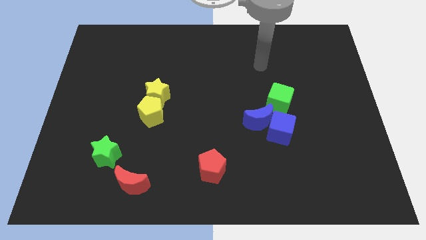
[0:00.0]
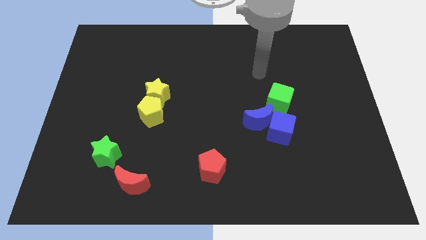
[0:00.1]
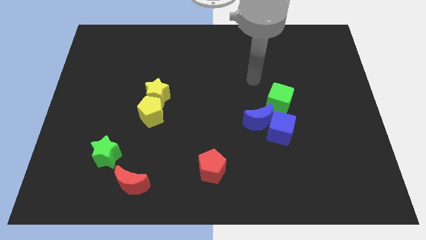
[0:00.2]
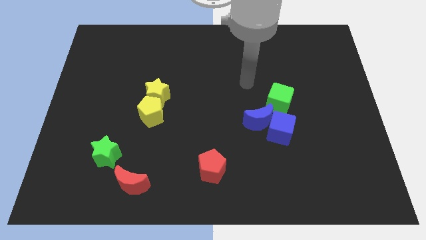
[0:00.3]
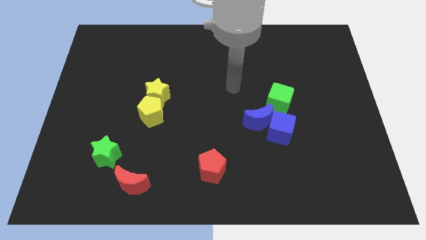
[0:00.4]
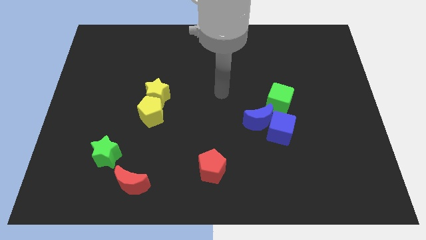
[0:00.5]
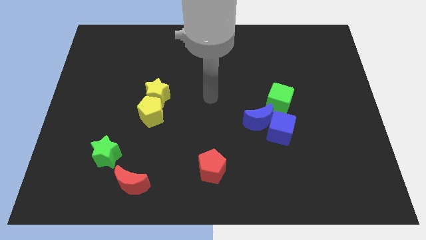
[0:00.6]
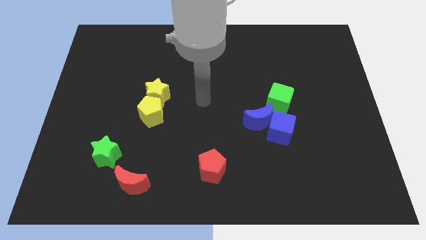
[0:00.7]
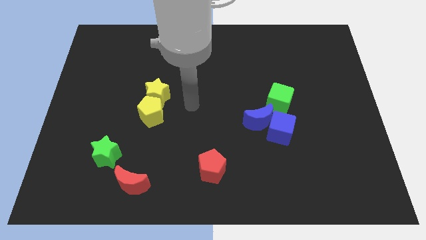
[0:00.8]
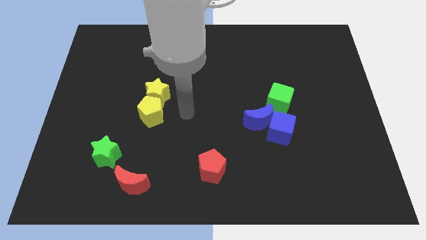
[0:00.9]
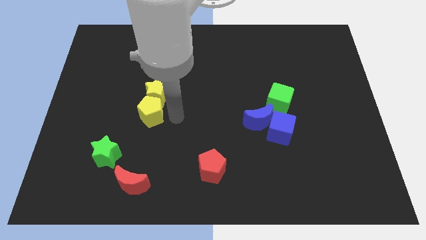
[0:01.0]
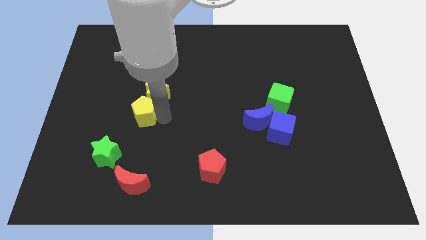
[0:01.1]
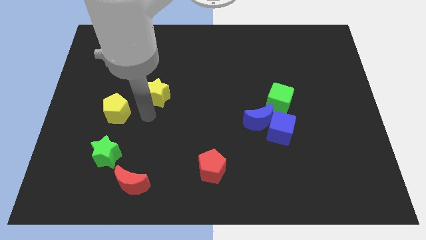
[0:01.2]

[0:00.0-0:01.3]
separate the yellow star from the yellow pentagon

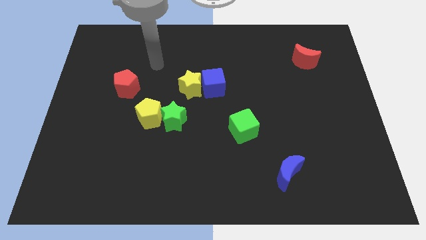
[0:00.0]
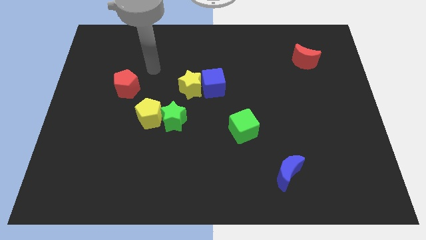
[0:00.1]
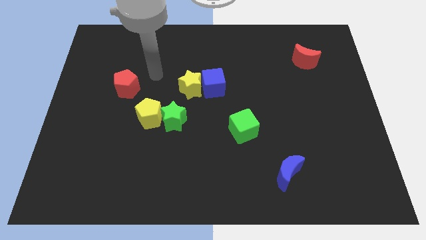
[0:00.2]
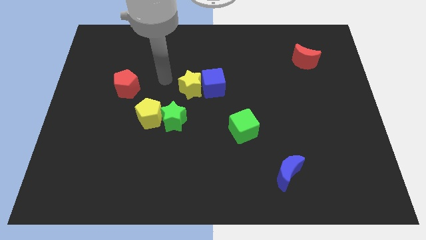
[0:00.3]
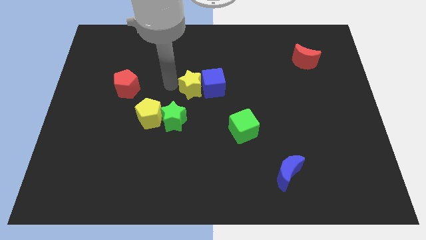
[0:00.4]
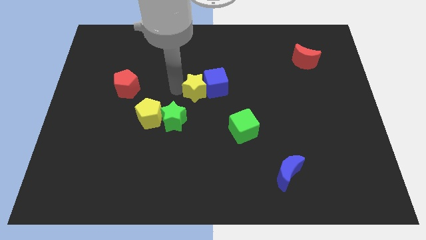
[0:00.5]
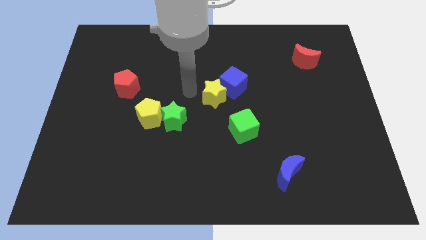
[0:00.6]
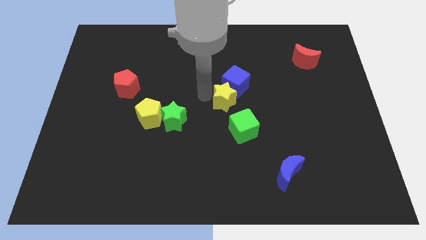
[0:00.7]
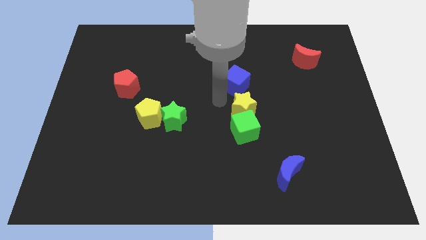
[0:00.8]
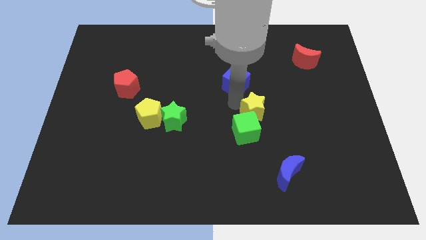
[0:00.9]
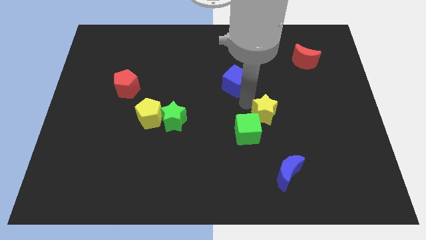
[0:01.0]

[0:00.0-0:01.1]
pull the blue cube apart from the yellow star

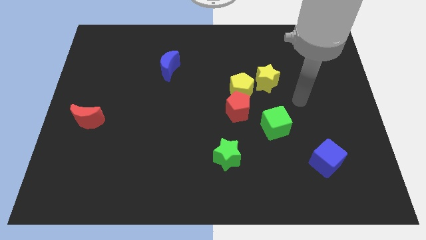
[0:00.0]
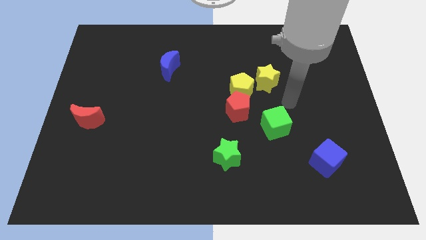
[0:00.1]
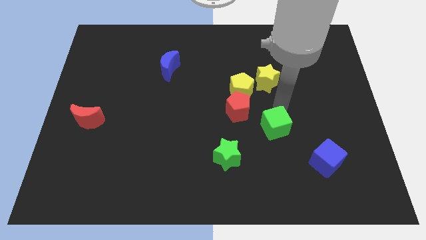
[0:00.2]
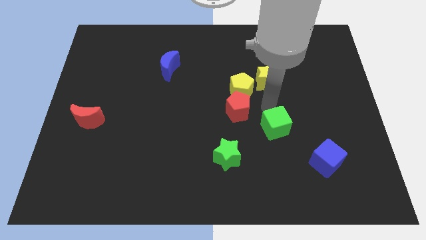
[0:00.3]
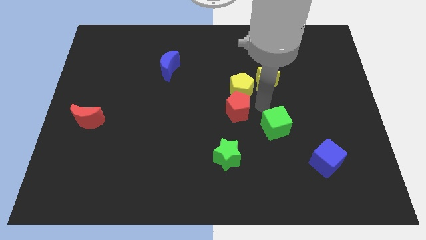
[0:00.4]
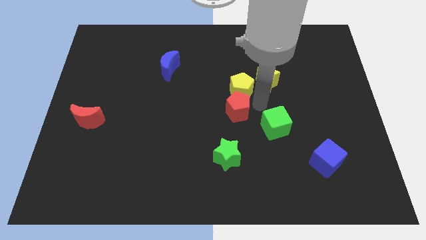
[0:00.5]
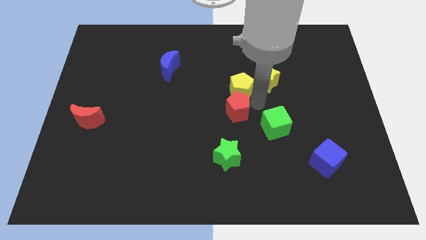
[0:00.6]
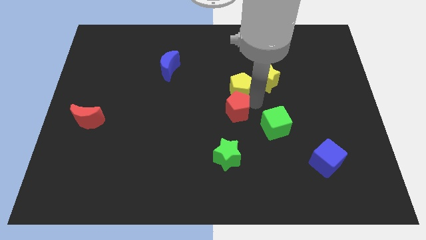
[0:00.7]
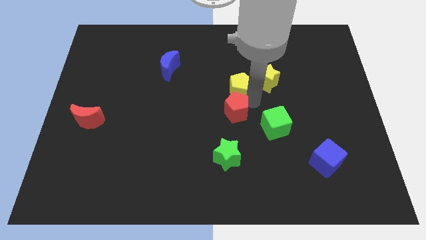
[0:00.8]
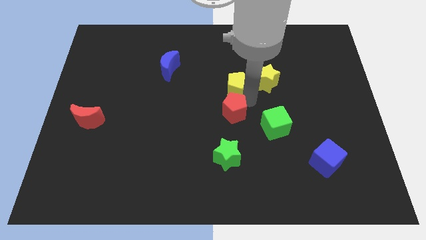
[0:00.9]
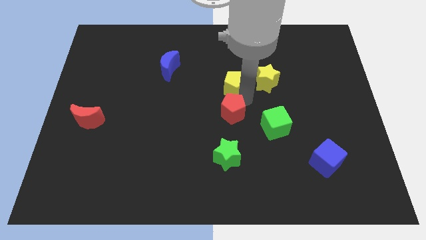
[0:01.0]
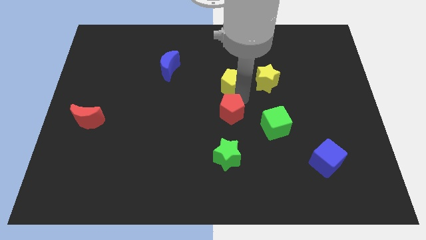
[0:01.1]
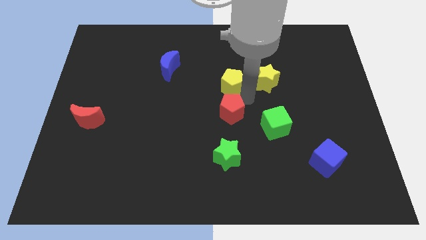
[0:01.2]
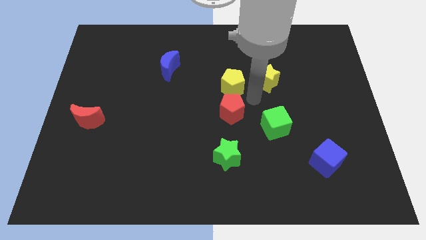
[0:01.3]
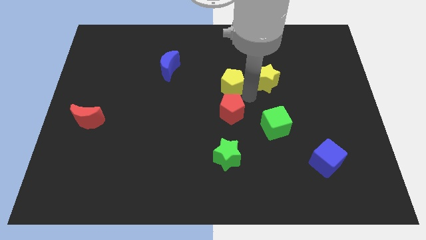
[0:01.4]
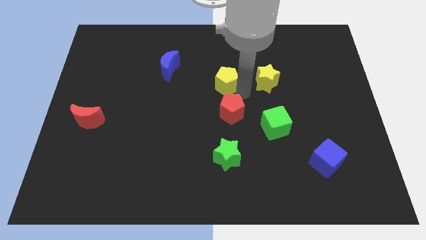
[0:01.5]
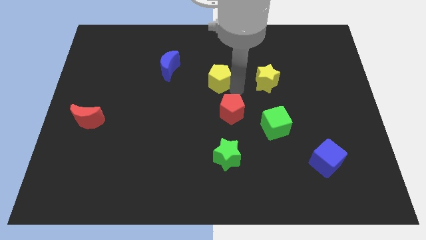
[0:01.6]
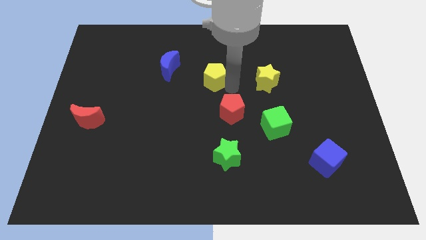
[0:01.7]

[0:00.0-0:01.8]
move the yellow pentagon away from the red pentagon and yellow star

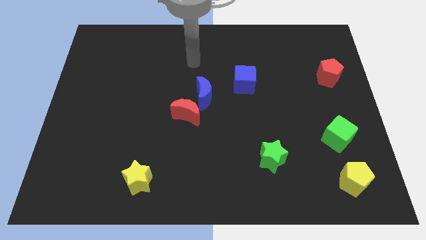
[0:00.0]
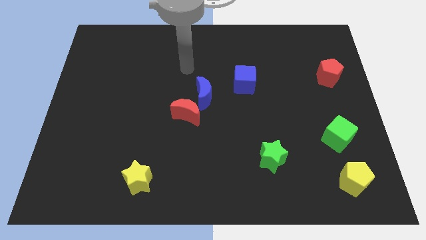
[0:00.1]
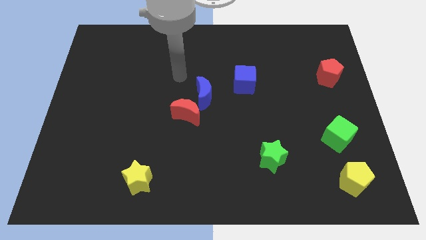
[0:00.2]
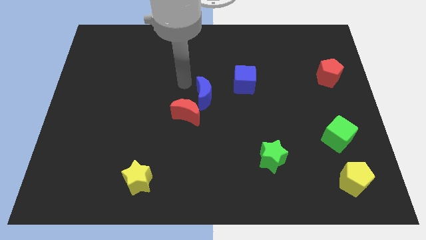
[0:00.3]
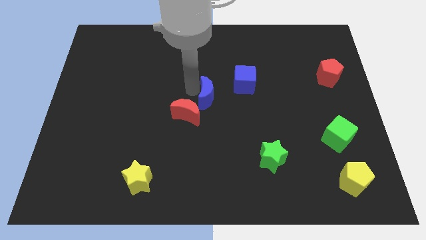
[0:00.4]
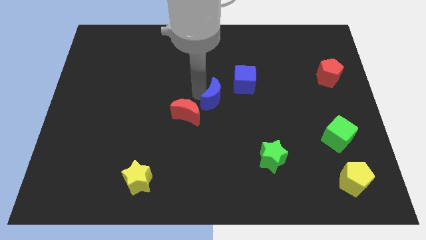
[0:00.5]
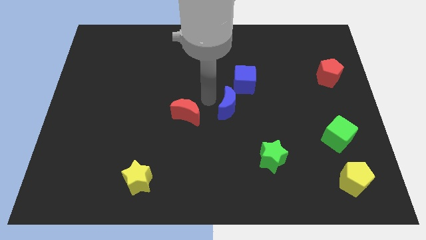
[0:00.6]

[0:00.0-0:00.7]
move the red moon away from the blue moon

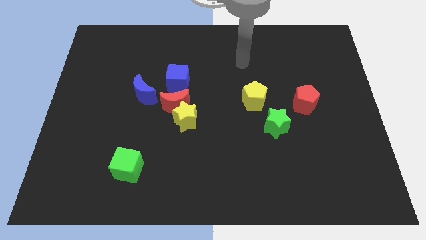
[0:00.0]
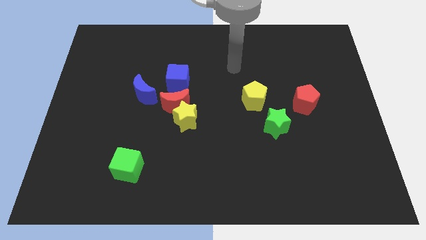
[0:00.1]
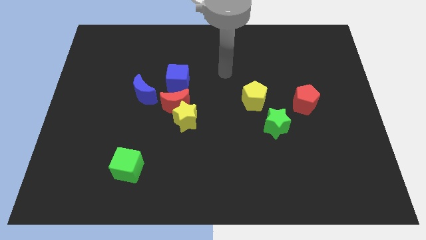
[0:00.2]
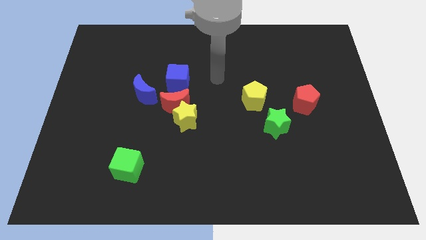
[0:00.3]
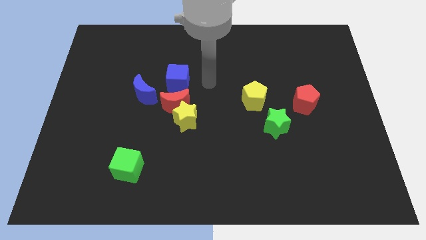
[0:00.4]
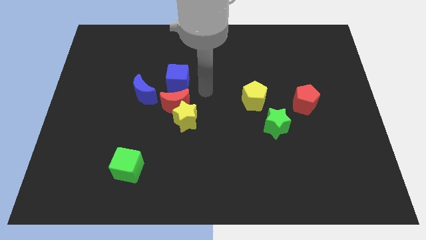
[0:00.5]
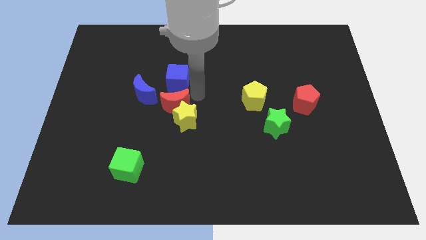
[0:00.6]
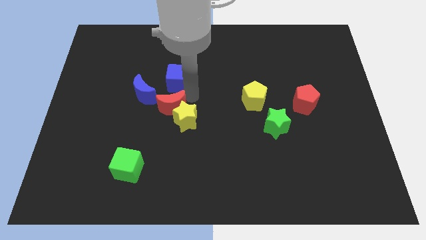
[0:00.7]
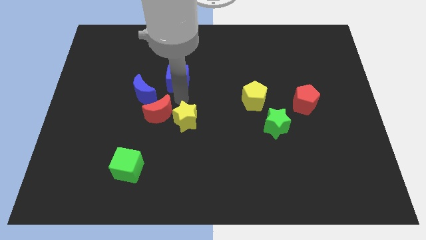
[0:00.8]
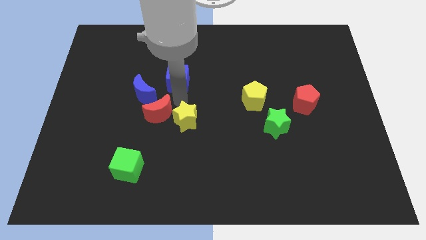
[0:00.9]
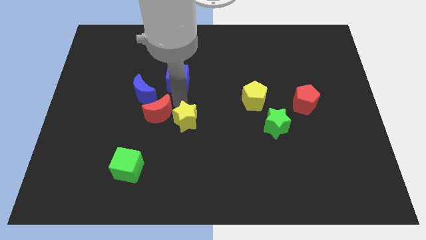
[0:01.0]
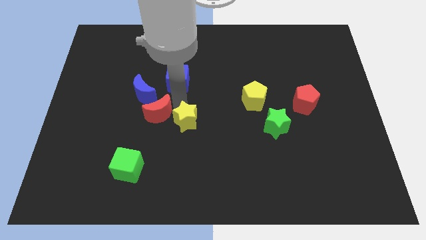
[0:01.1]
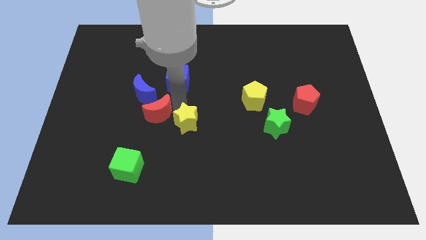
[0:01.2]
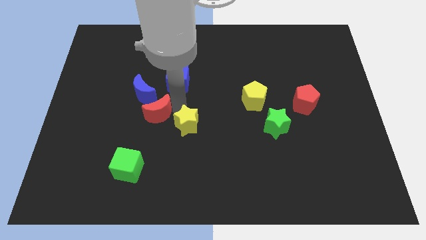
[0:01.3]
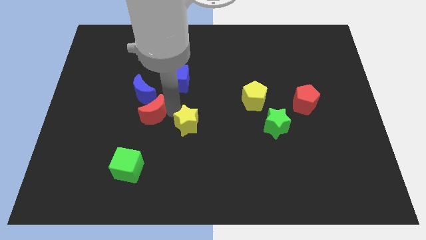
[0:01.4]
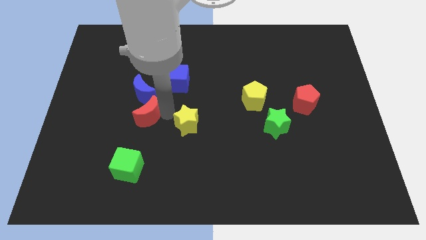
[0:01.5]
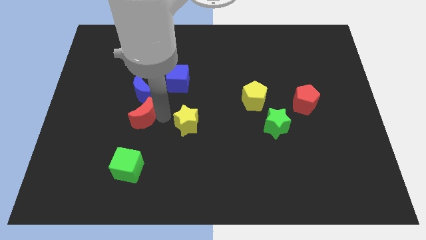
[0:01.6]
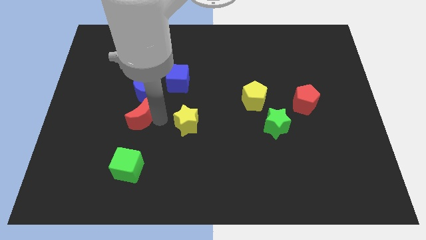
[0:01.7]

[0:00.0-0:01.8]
move the yellow star away from the red moon

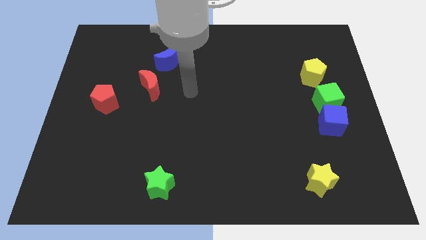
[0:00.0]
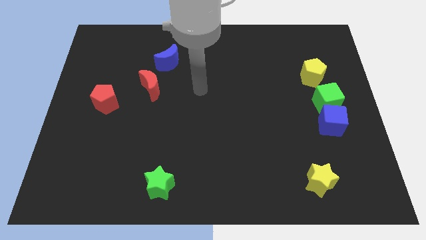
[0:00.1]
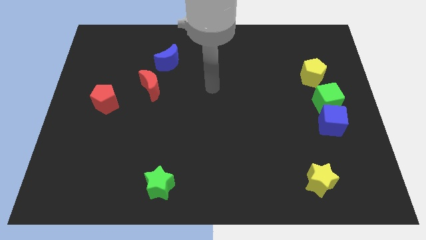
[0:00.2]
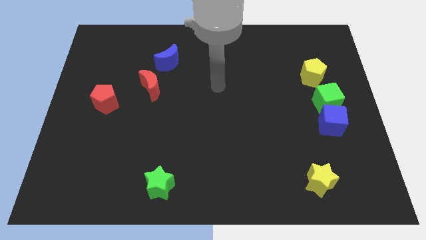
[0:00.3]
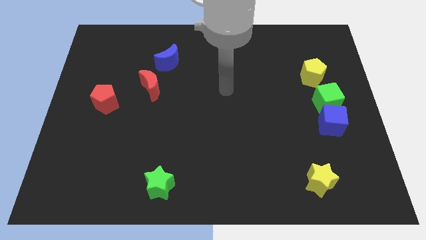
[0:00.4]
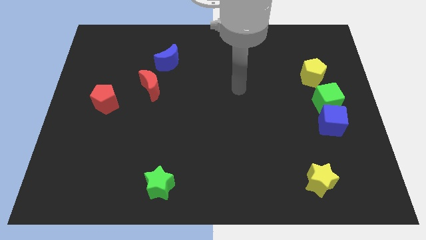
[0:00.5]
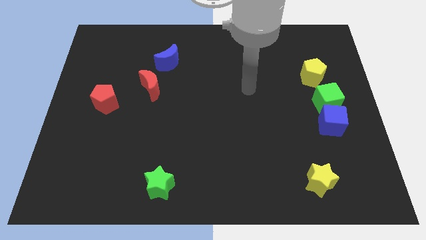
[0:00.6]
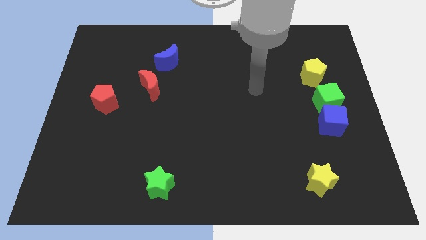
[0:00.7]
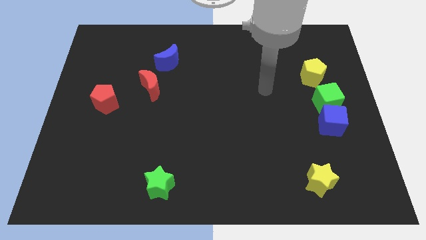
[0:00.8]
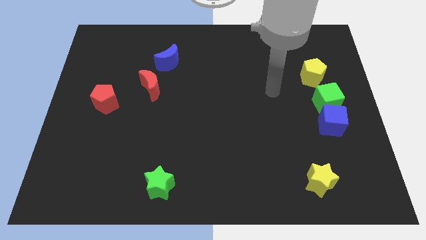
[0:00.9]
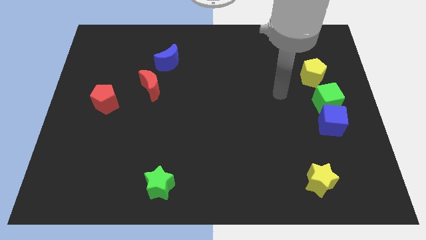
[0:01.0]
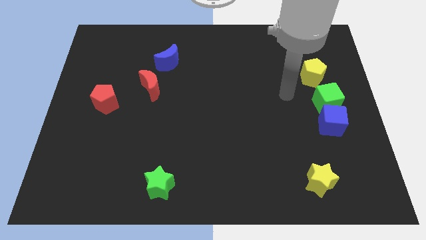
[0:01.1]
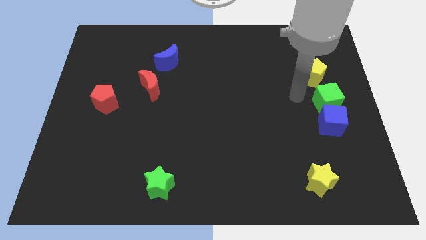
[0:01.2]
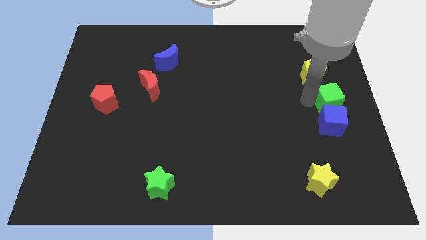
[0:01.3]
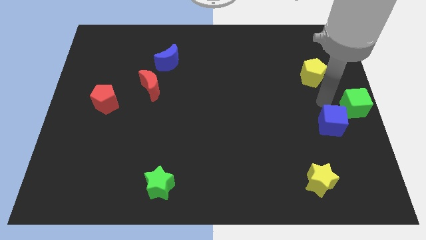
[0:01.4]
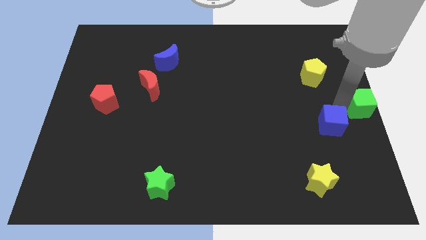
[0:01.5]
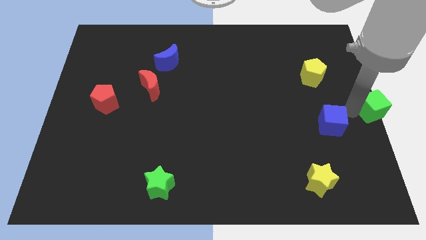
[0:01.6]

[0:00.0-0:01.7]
move the blue cube away from the green cube

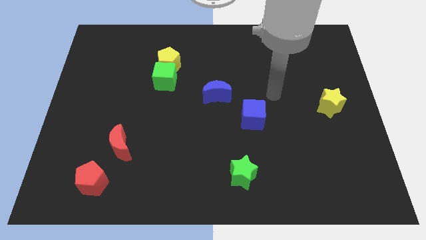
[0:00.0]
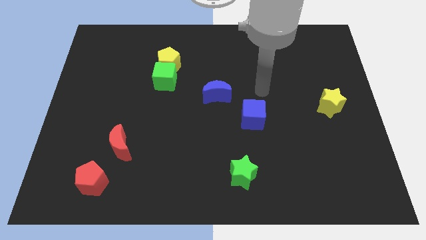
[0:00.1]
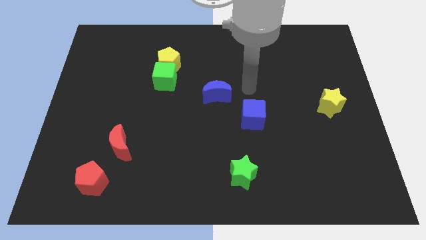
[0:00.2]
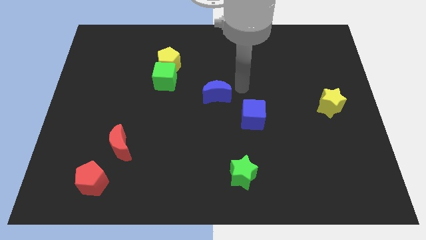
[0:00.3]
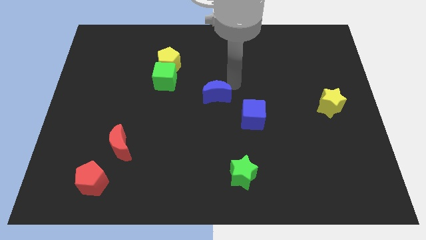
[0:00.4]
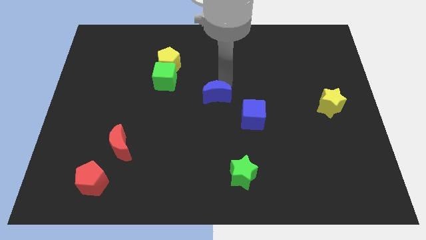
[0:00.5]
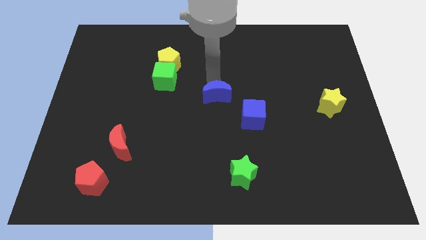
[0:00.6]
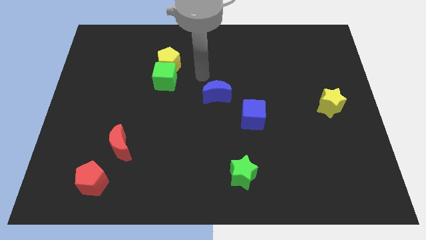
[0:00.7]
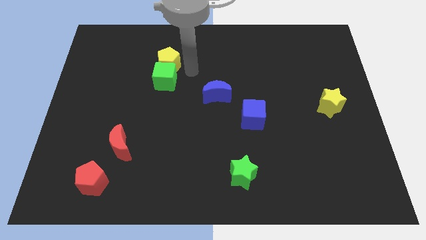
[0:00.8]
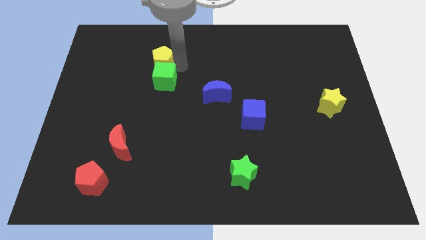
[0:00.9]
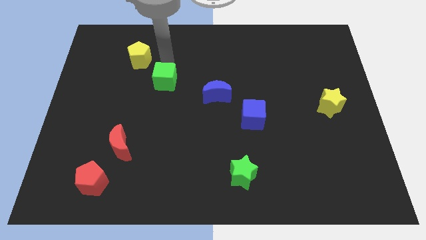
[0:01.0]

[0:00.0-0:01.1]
move the green cube away from the yellow pentagon
